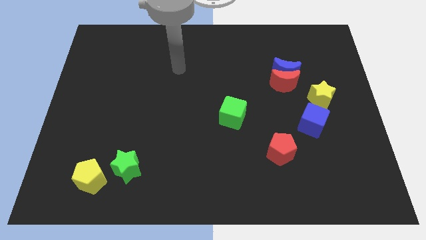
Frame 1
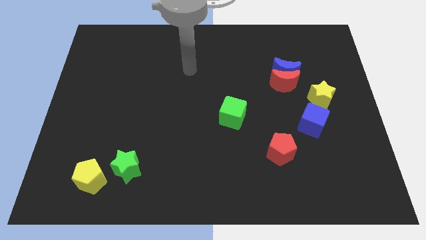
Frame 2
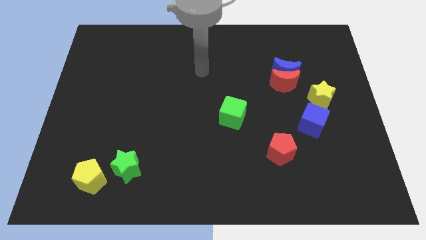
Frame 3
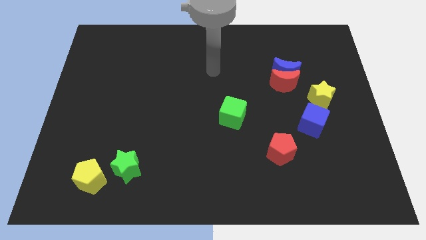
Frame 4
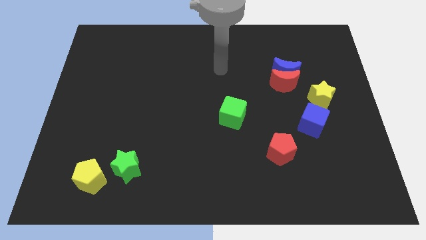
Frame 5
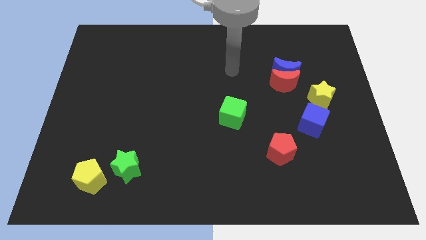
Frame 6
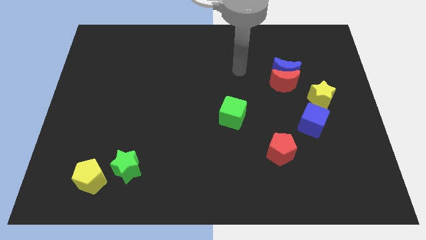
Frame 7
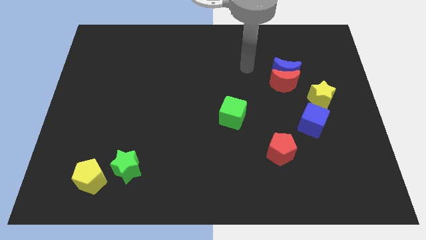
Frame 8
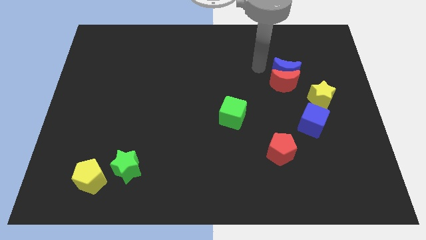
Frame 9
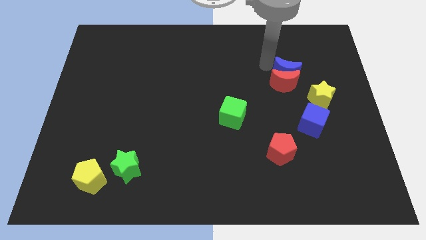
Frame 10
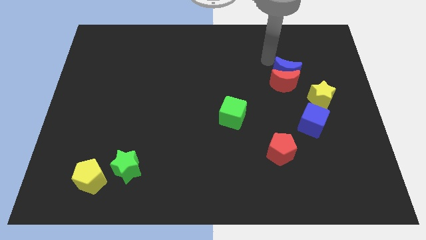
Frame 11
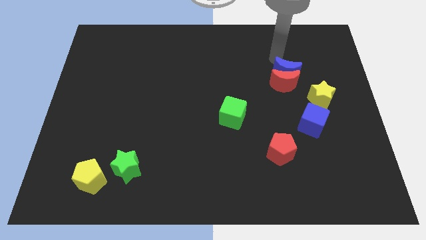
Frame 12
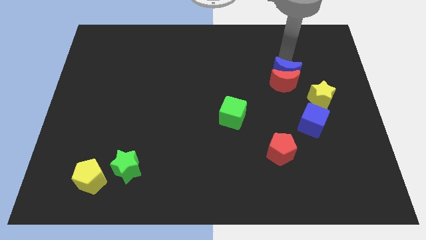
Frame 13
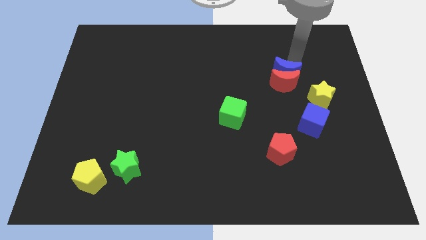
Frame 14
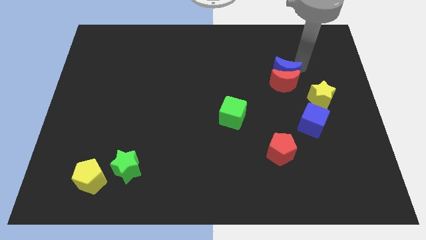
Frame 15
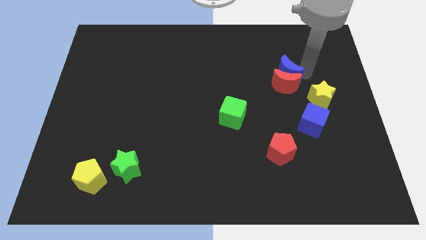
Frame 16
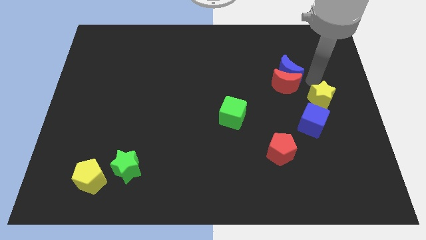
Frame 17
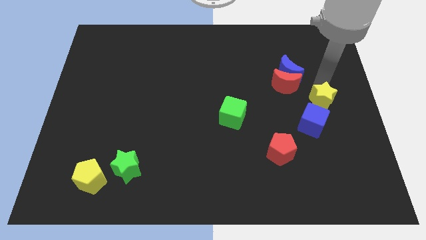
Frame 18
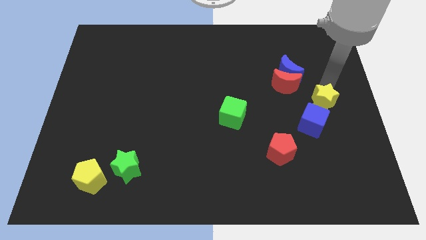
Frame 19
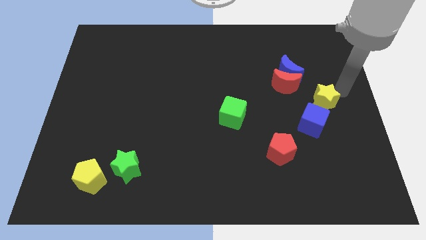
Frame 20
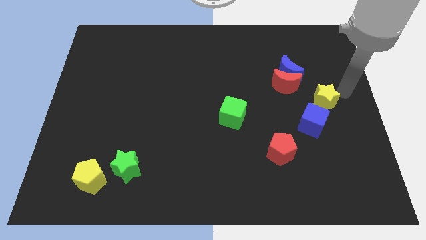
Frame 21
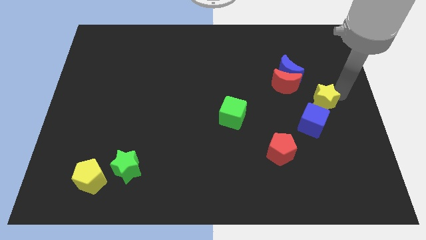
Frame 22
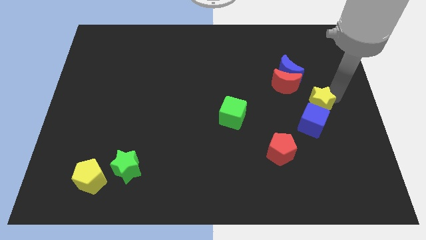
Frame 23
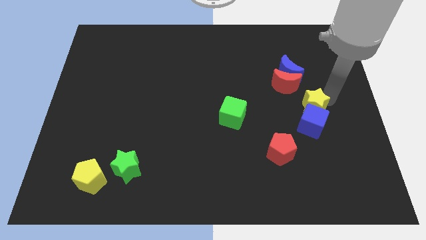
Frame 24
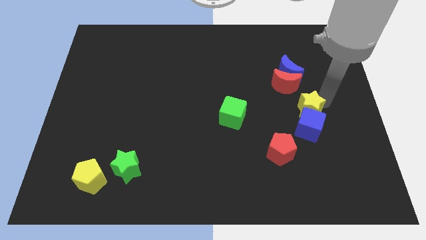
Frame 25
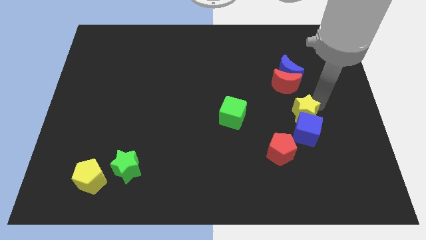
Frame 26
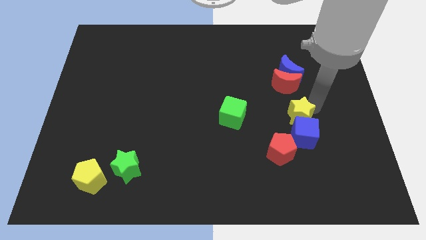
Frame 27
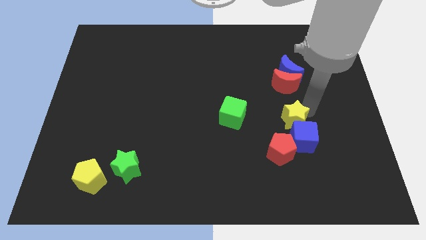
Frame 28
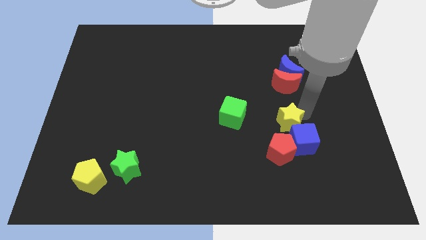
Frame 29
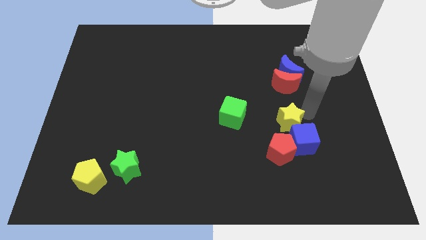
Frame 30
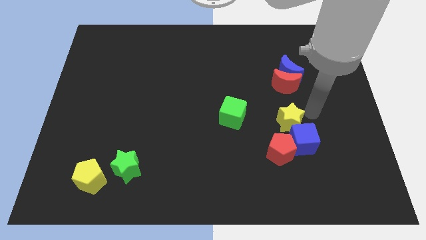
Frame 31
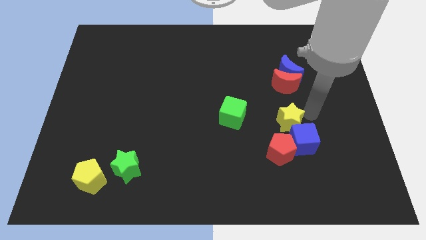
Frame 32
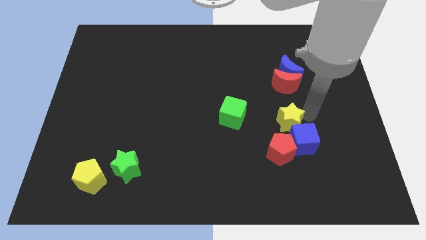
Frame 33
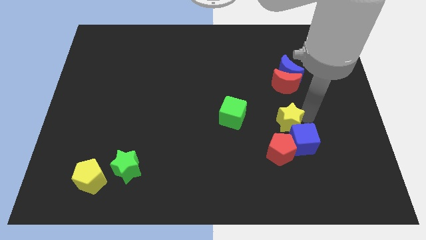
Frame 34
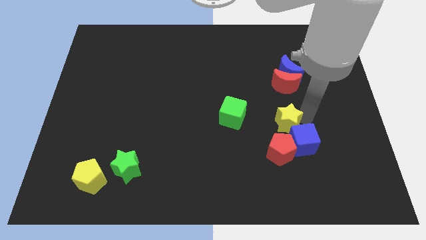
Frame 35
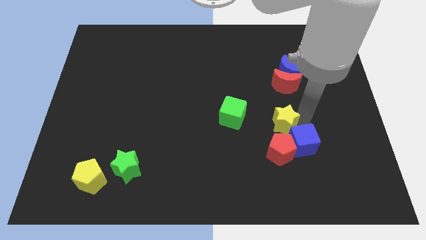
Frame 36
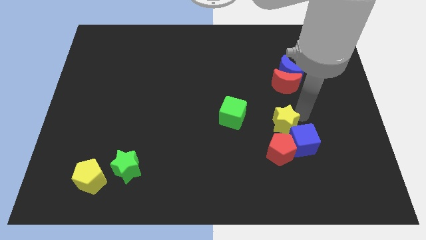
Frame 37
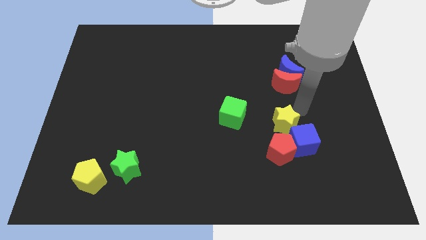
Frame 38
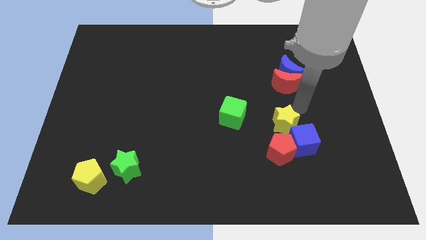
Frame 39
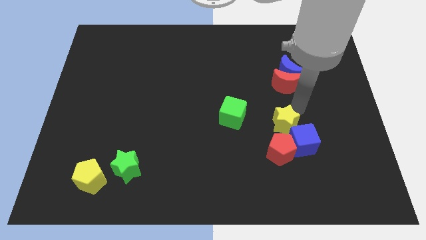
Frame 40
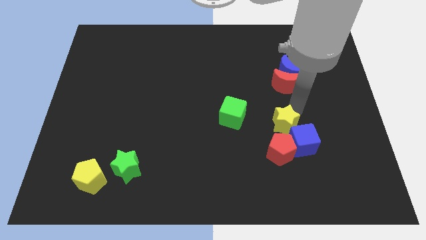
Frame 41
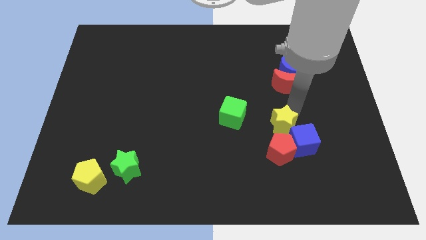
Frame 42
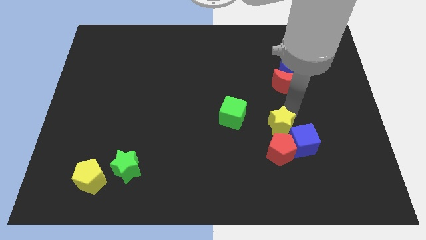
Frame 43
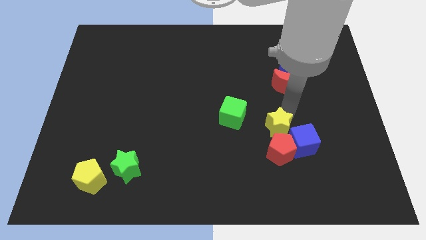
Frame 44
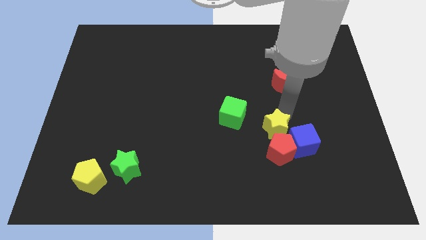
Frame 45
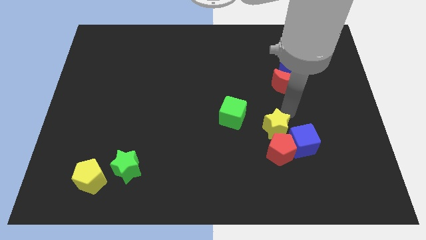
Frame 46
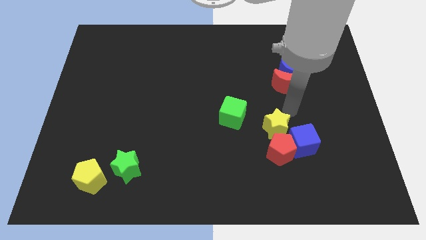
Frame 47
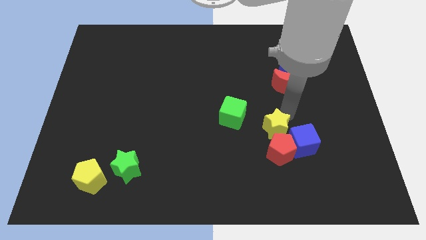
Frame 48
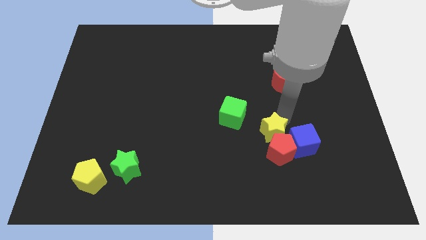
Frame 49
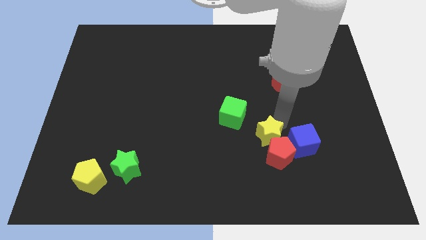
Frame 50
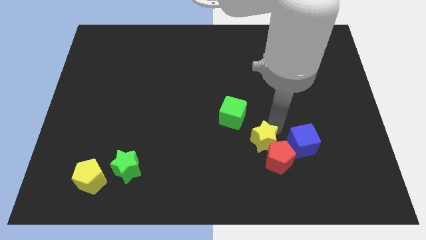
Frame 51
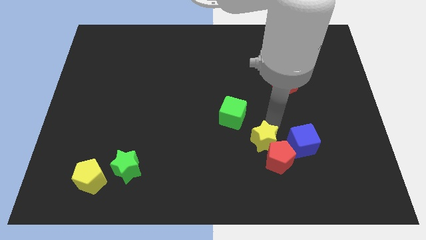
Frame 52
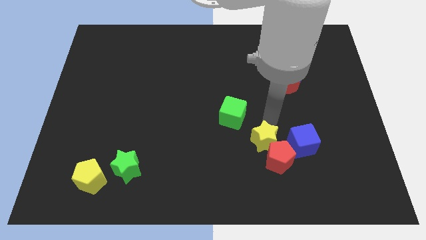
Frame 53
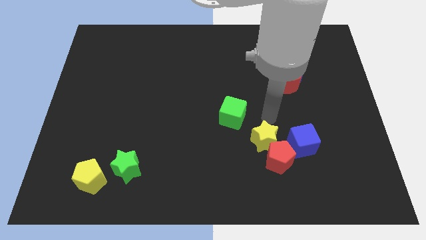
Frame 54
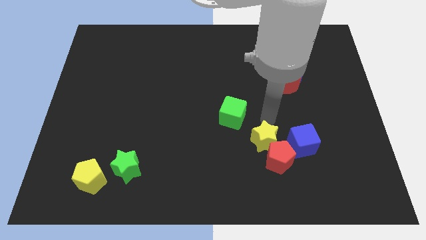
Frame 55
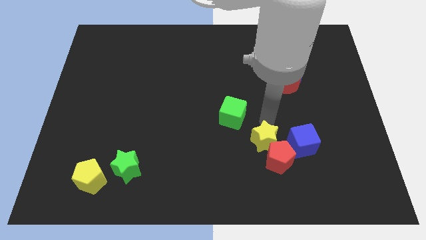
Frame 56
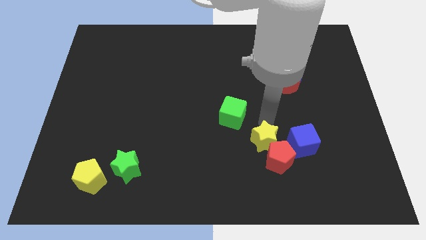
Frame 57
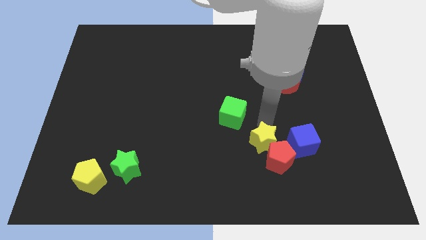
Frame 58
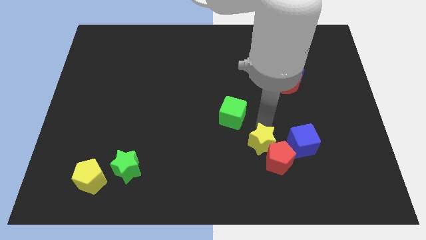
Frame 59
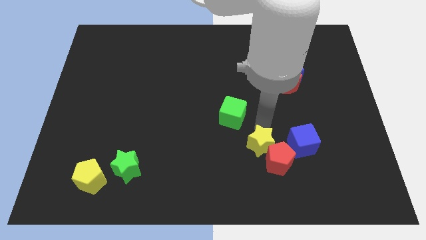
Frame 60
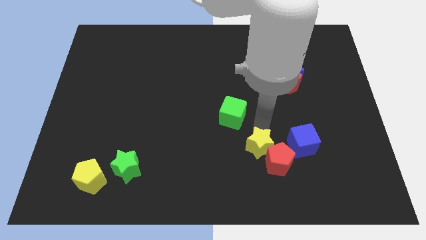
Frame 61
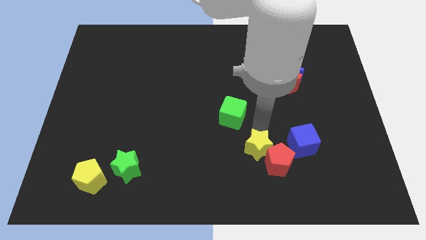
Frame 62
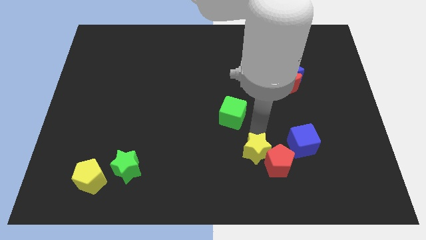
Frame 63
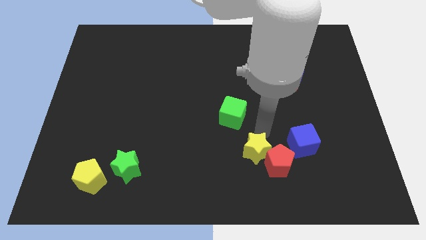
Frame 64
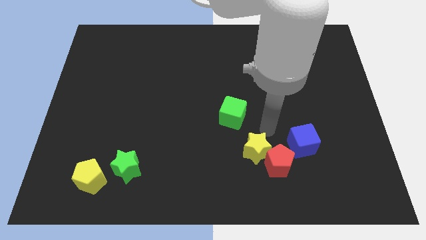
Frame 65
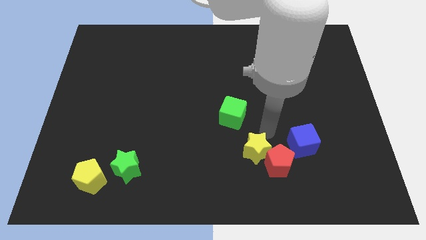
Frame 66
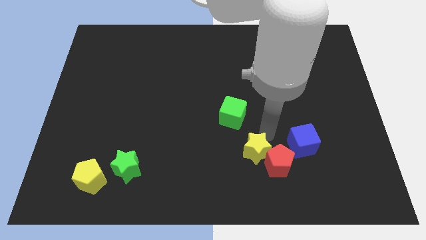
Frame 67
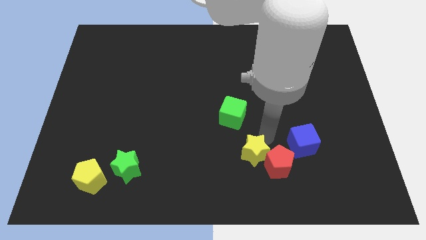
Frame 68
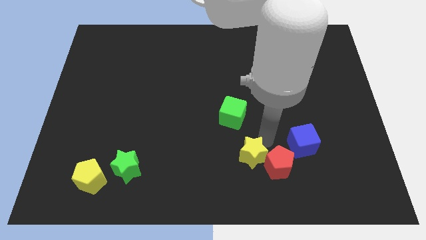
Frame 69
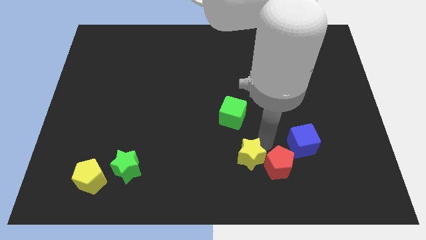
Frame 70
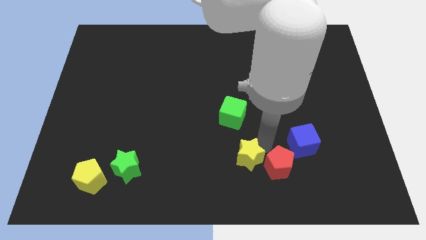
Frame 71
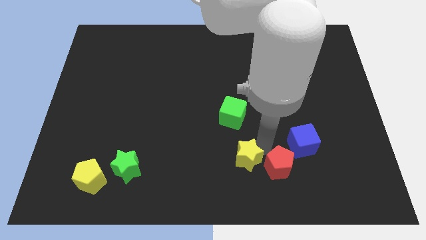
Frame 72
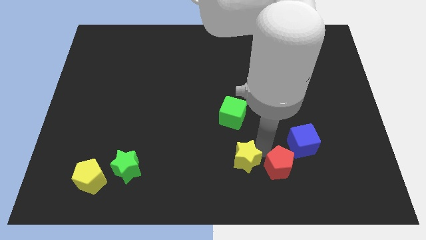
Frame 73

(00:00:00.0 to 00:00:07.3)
move the yellow star to the bottom
